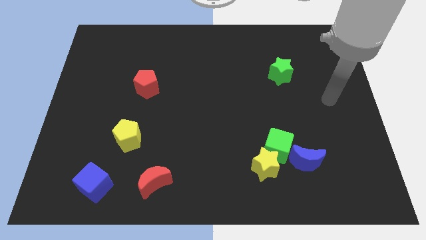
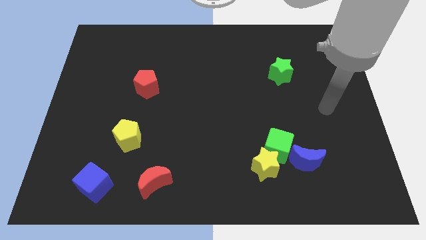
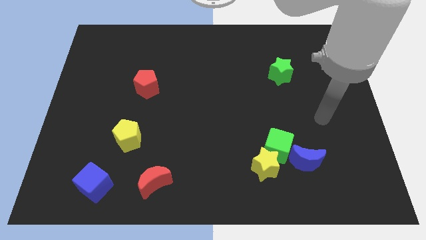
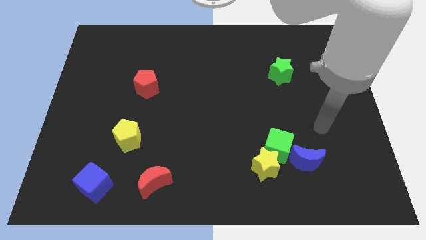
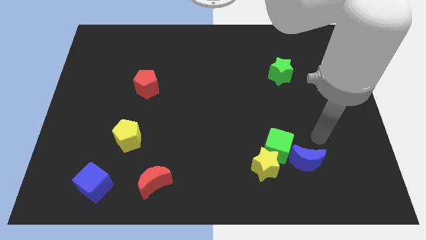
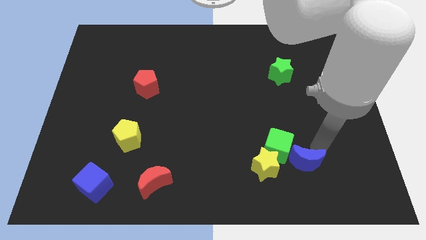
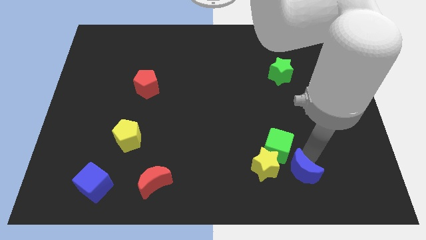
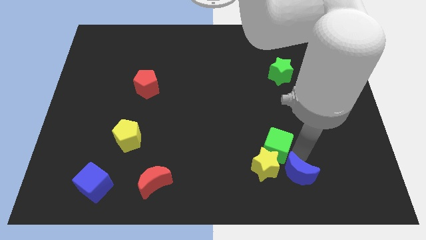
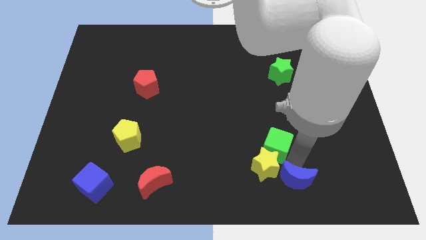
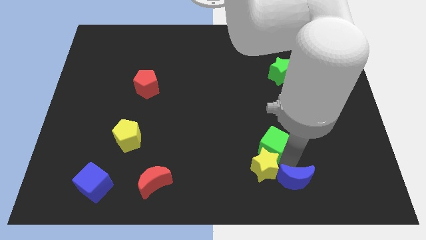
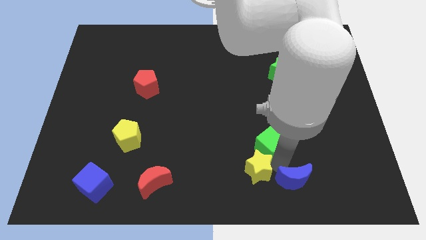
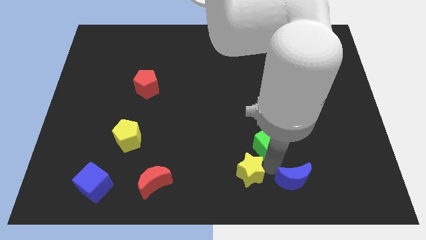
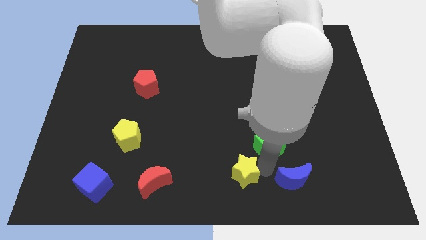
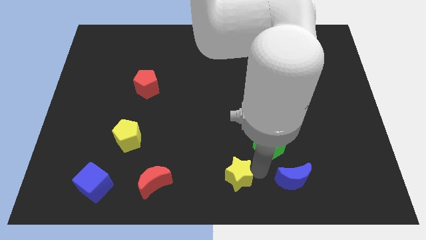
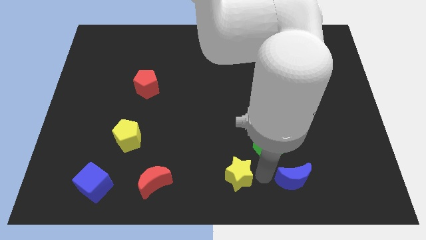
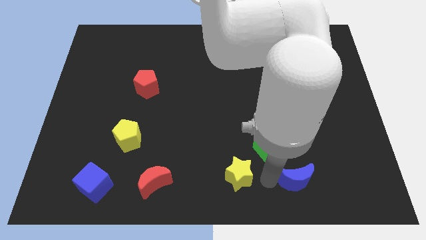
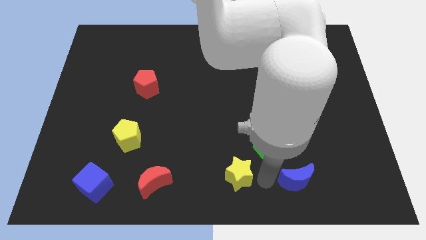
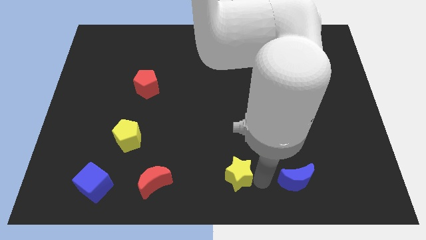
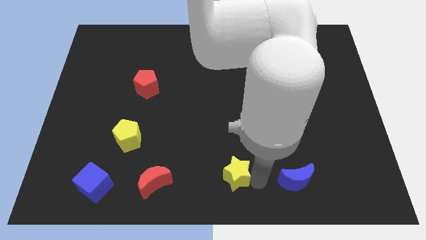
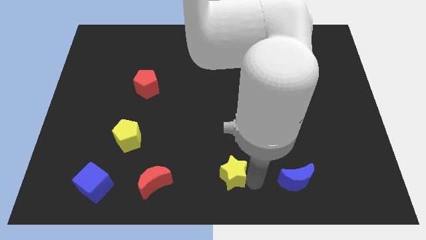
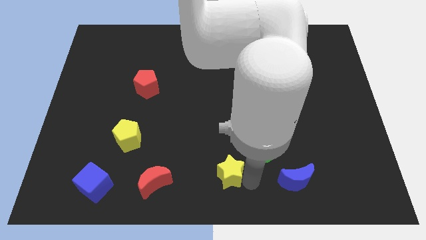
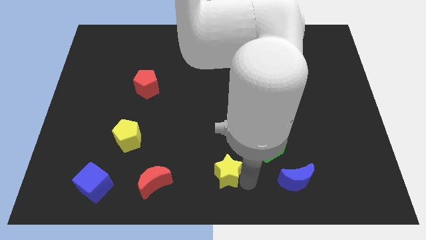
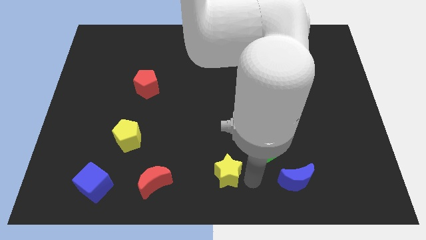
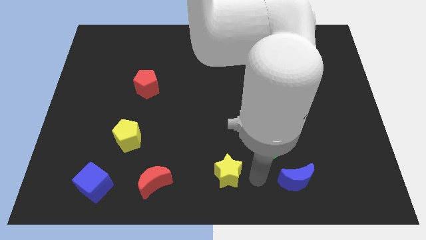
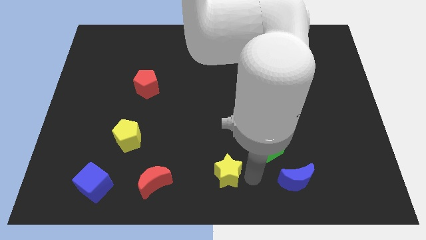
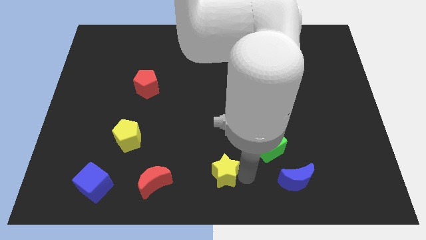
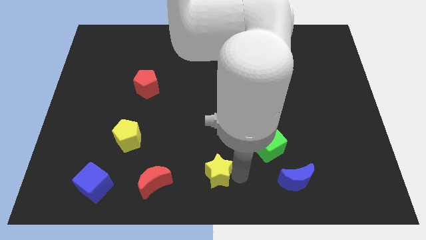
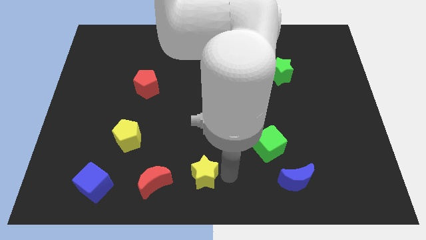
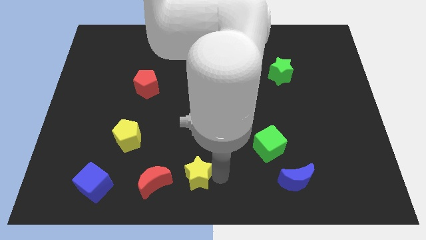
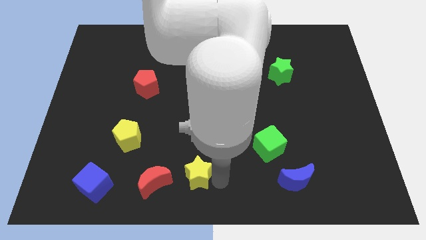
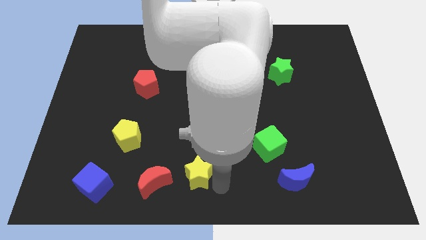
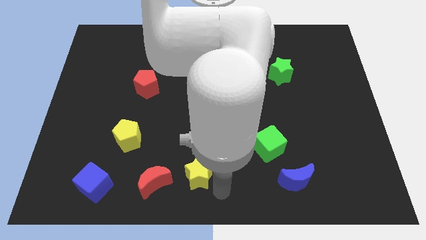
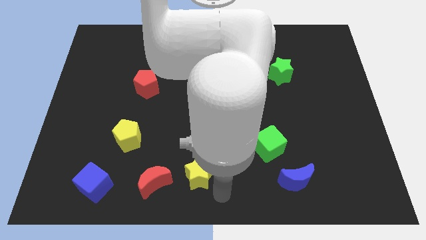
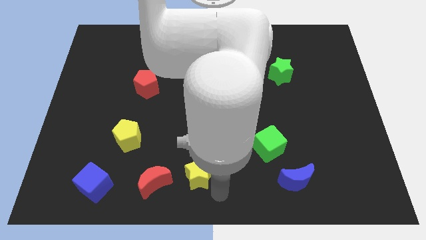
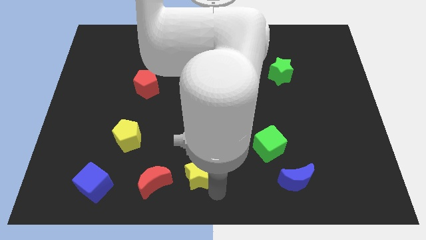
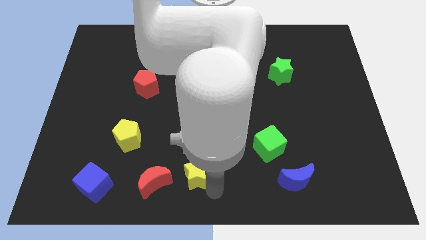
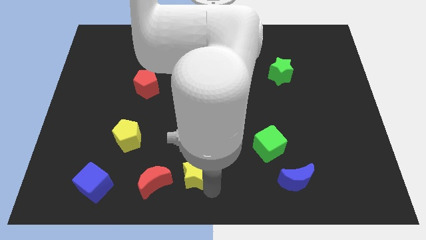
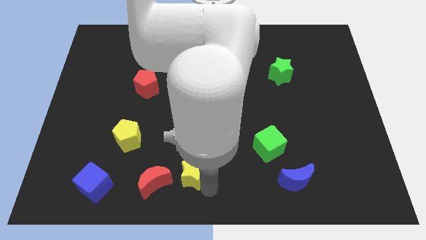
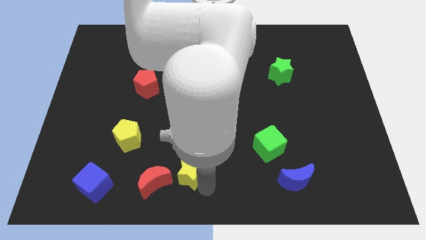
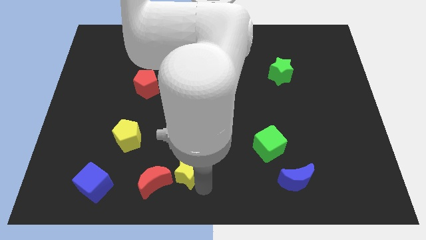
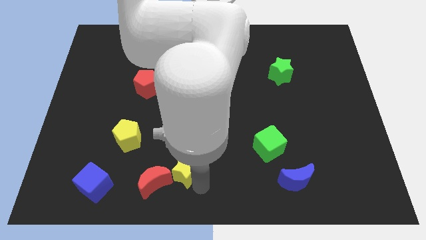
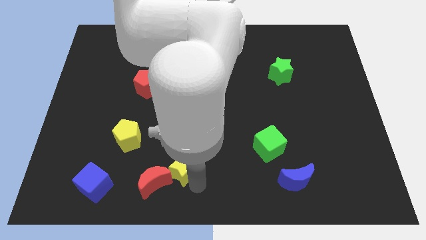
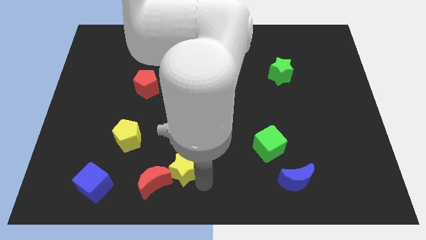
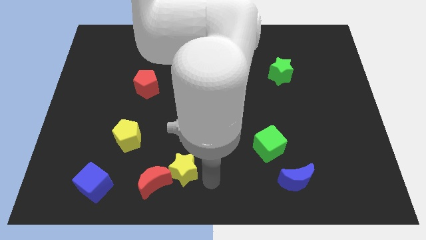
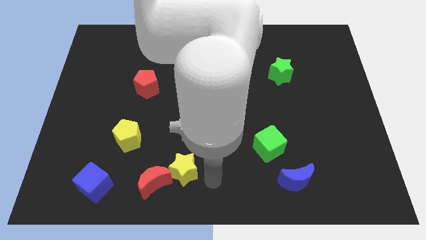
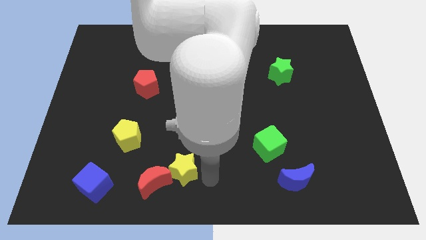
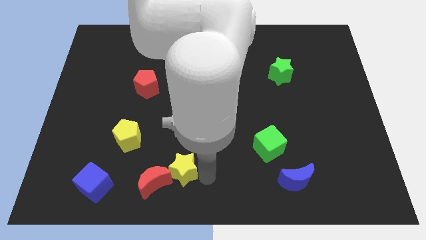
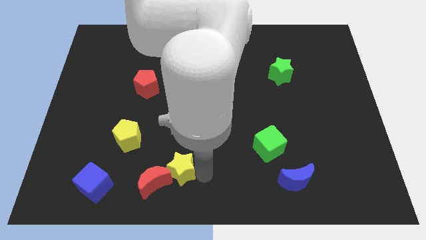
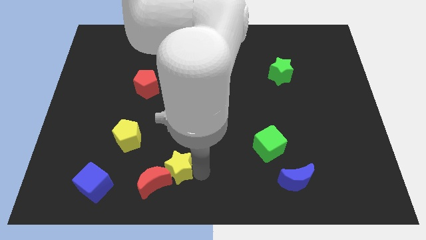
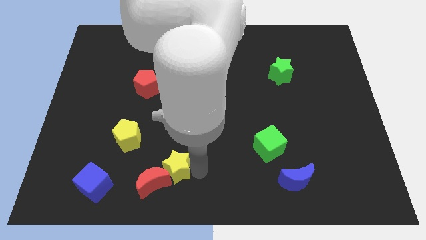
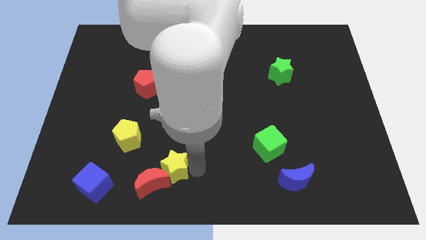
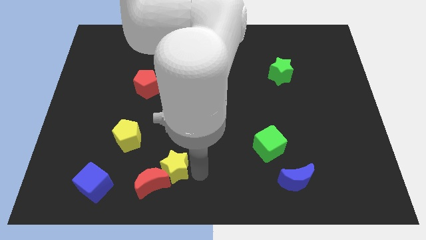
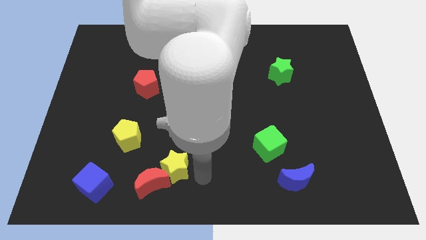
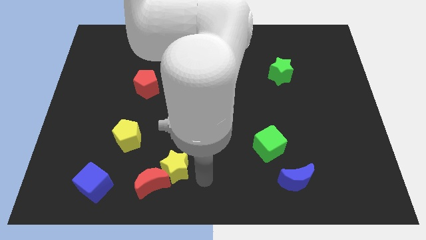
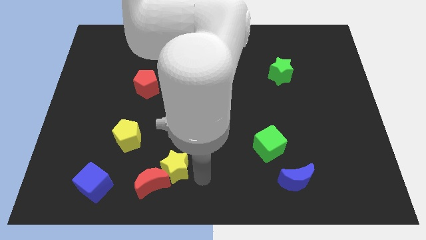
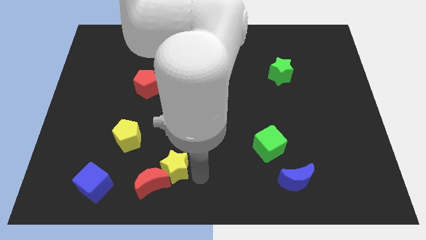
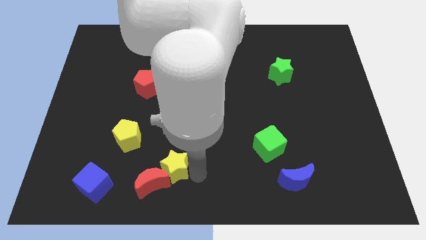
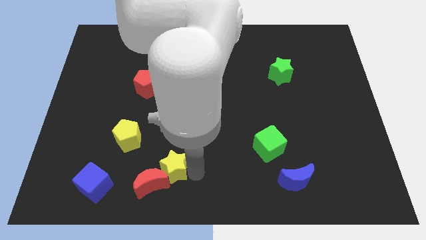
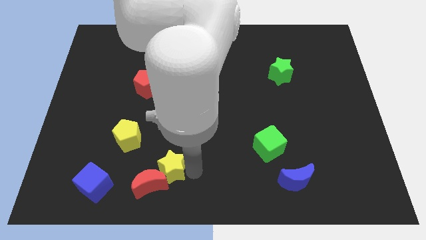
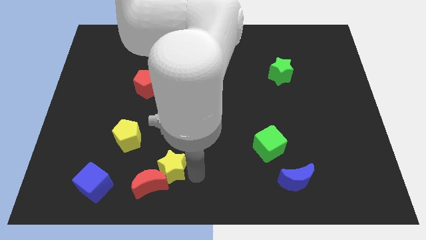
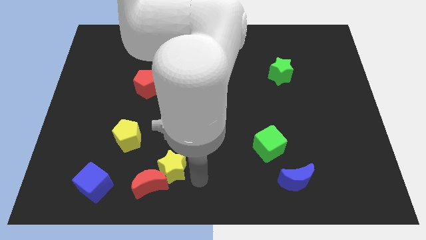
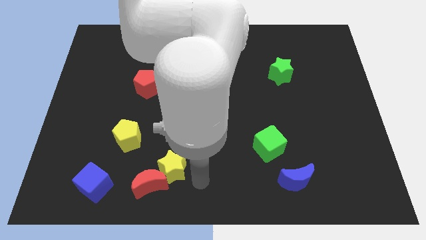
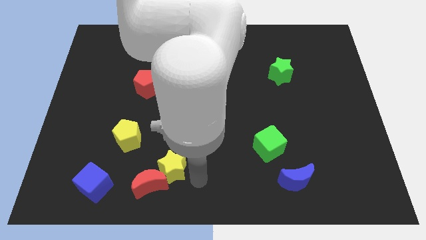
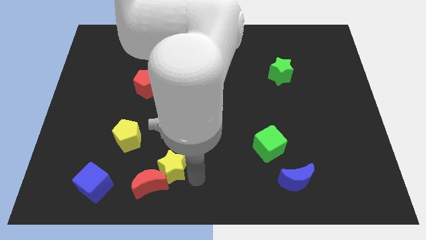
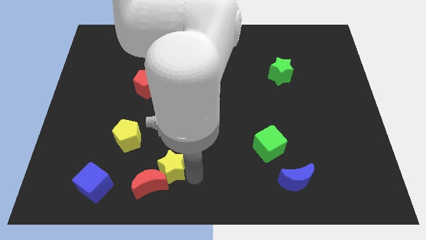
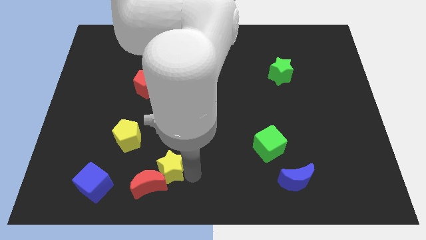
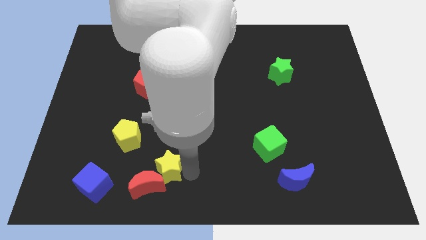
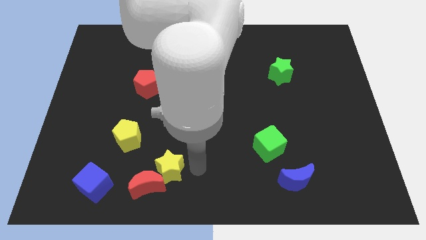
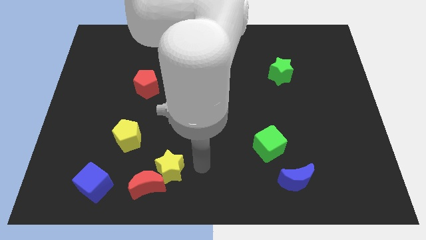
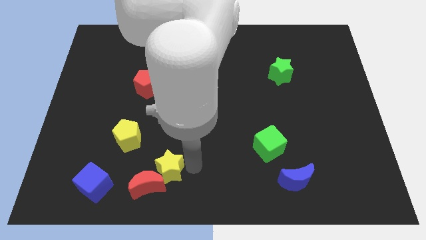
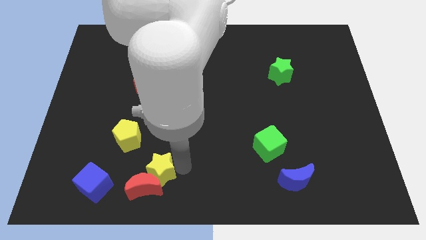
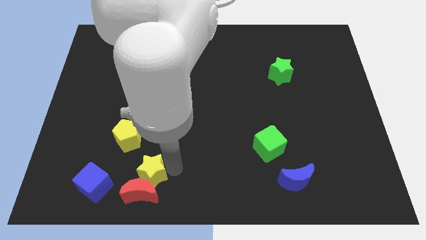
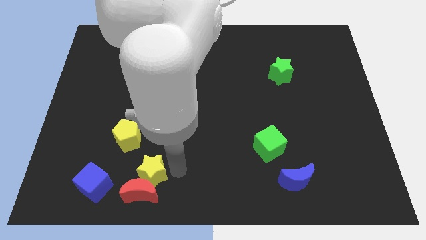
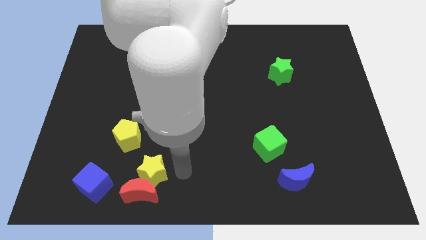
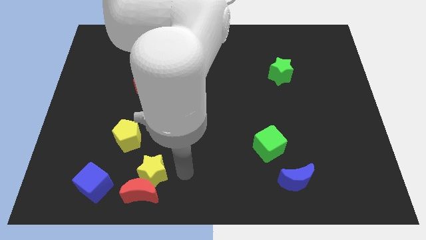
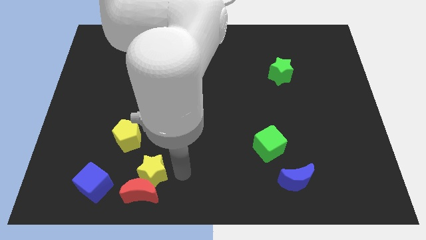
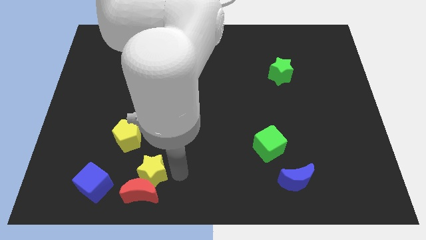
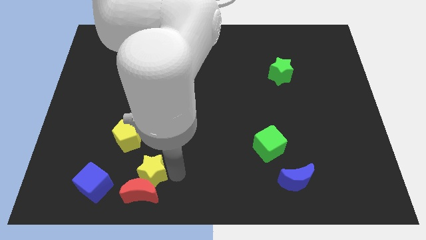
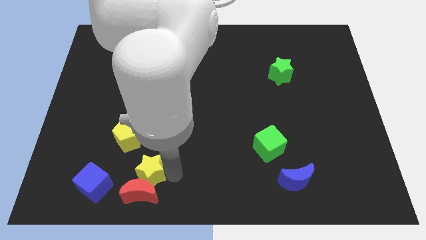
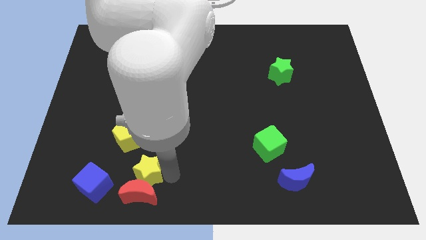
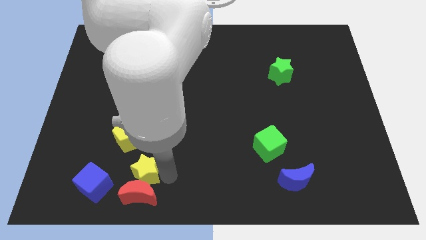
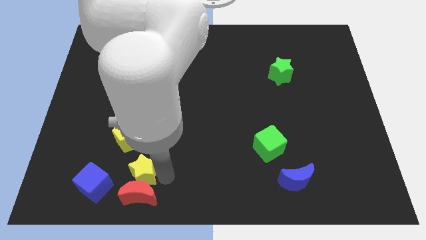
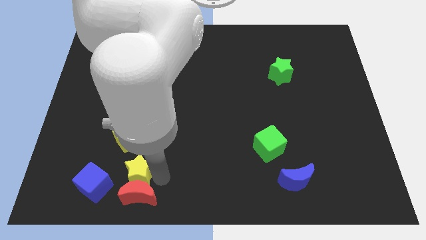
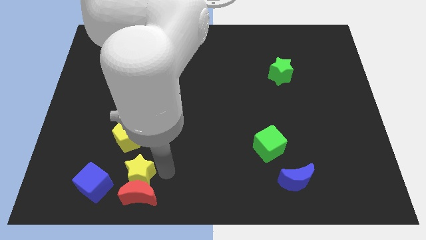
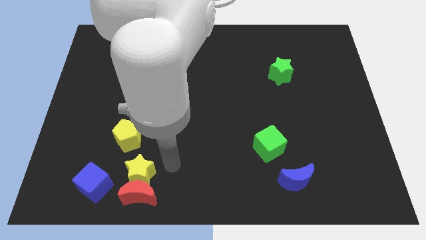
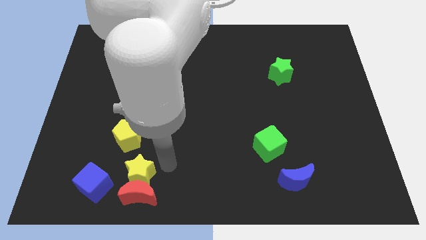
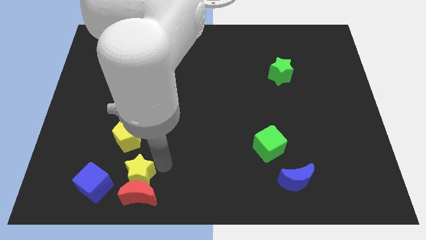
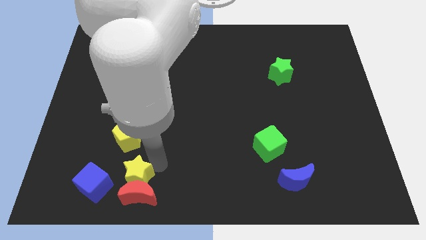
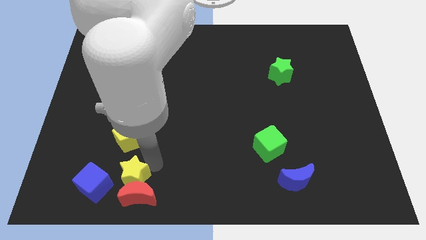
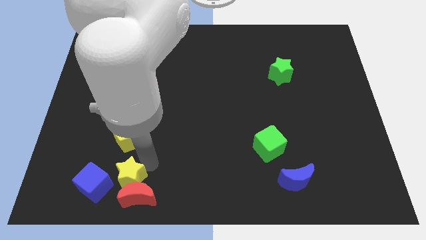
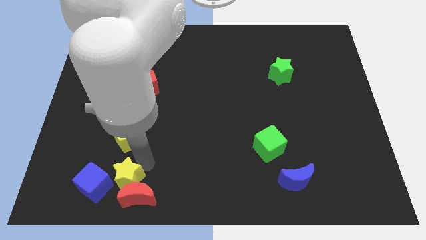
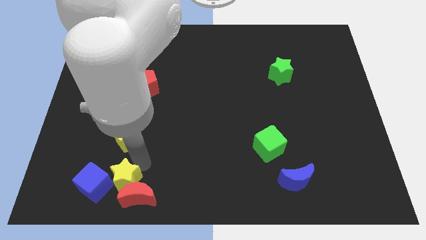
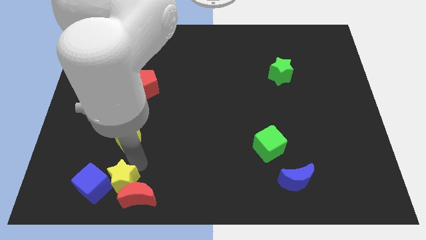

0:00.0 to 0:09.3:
put the yellow star towards the blue cube
